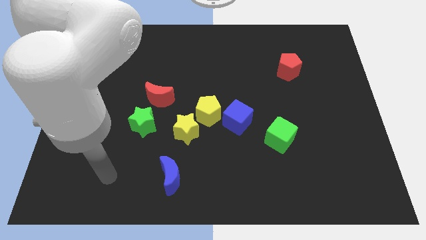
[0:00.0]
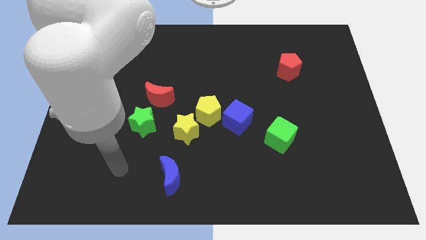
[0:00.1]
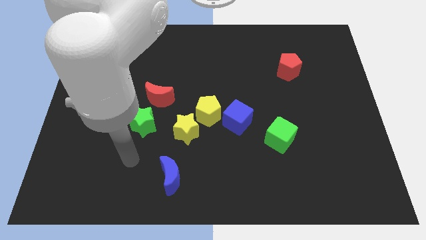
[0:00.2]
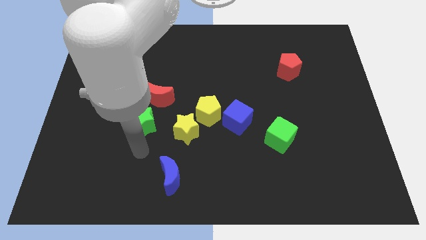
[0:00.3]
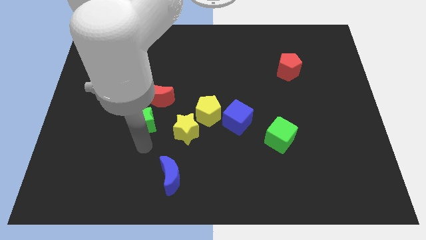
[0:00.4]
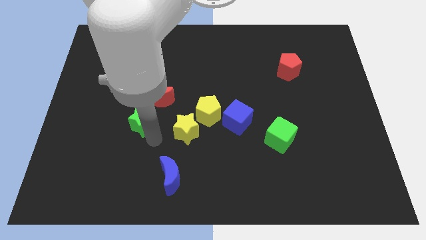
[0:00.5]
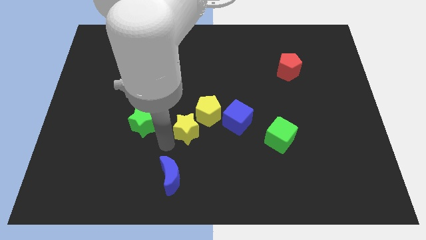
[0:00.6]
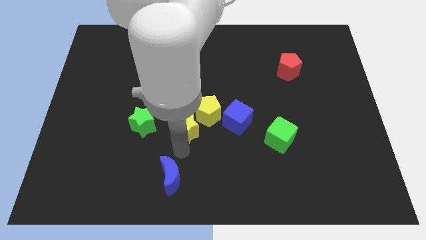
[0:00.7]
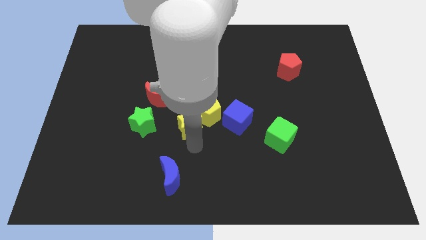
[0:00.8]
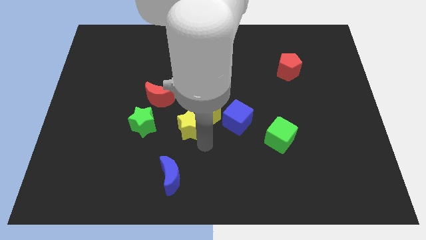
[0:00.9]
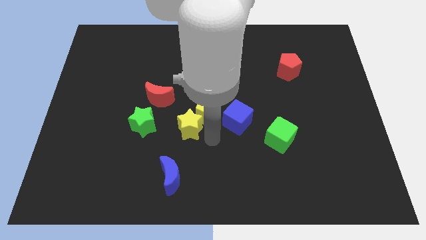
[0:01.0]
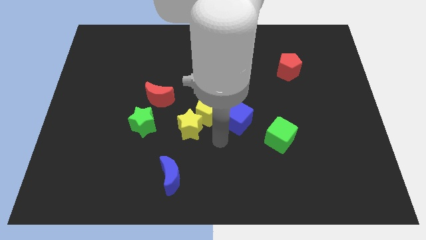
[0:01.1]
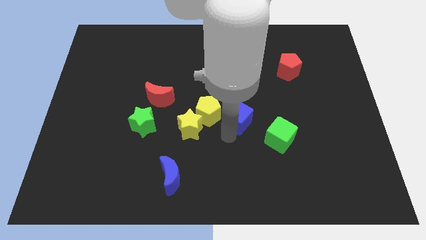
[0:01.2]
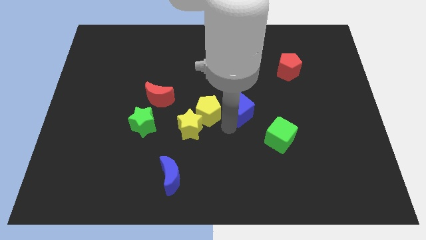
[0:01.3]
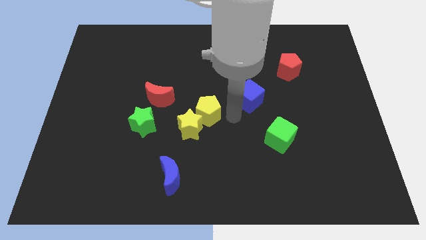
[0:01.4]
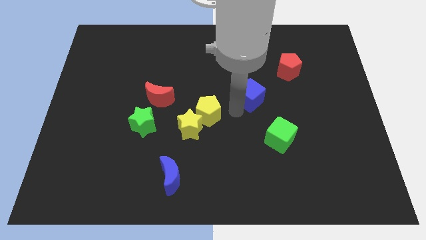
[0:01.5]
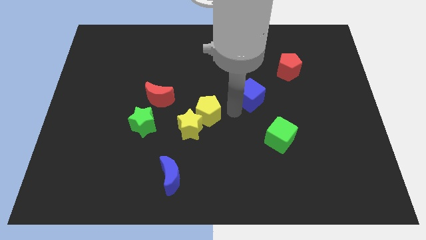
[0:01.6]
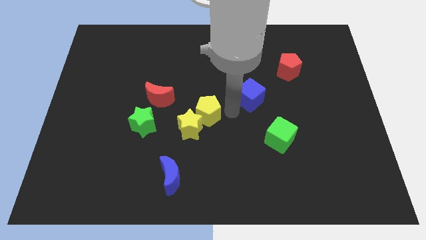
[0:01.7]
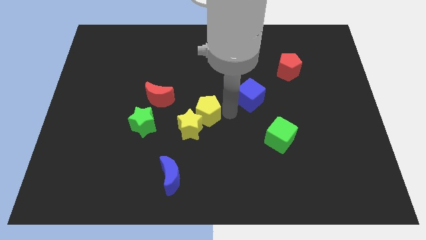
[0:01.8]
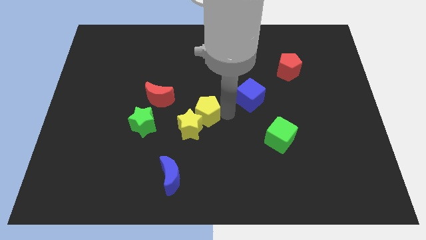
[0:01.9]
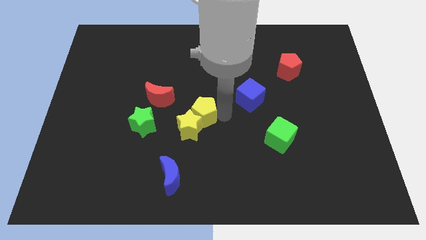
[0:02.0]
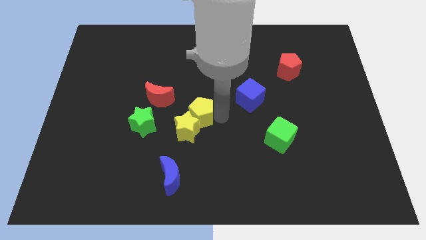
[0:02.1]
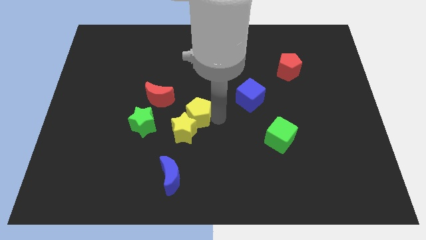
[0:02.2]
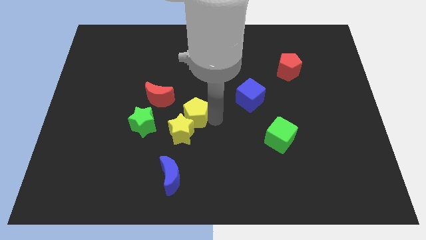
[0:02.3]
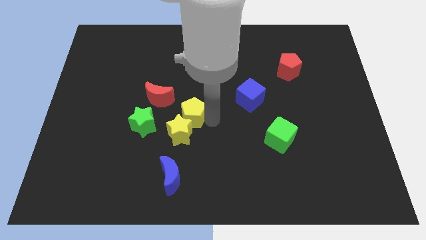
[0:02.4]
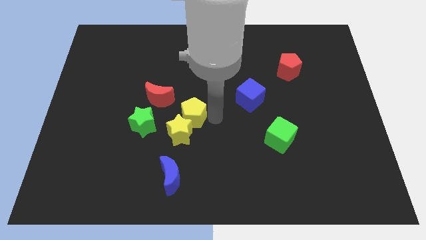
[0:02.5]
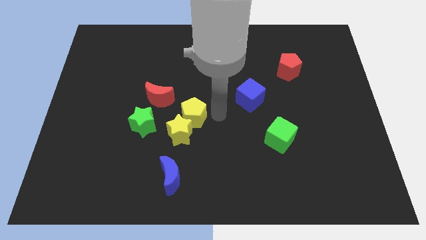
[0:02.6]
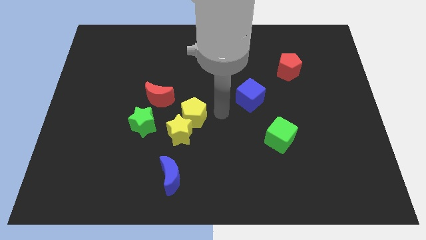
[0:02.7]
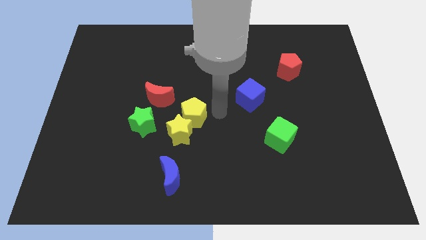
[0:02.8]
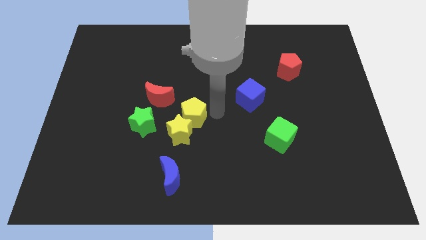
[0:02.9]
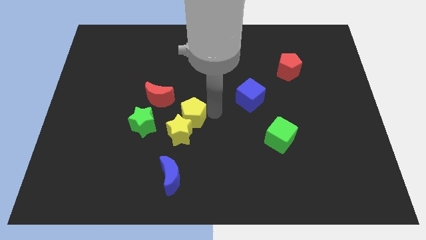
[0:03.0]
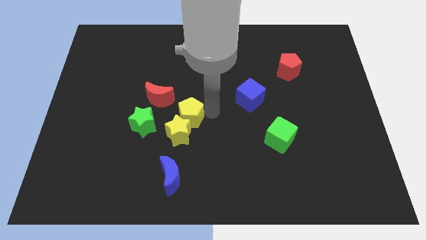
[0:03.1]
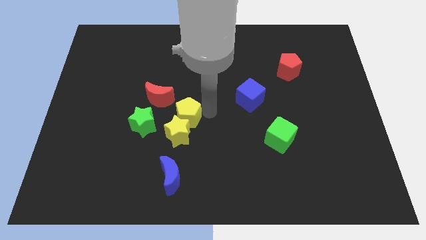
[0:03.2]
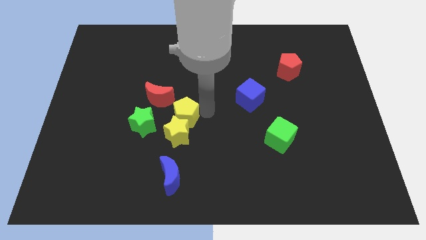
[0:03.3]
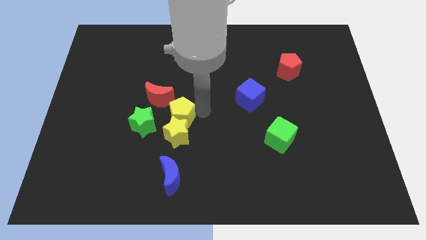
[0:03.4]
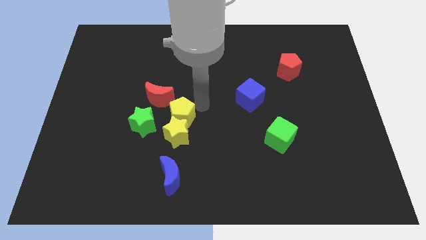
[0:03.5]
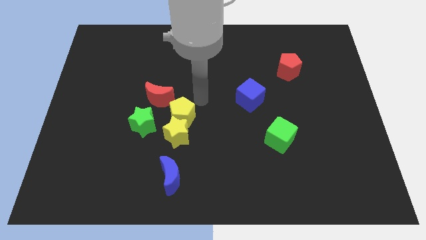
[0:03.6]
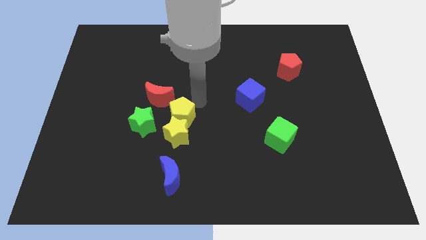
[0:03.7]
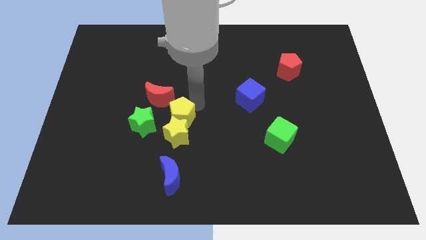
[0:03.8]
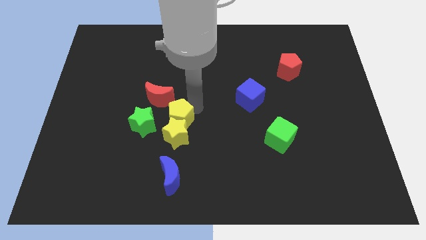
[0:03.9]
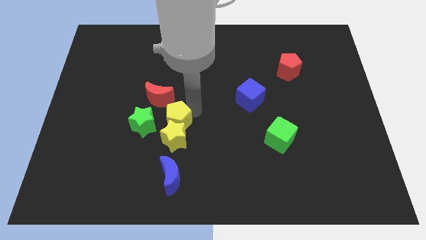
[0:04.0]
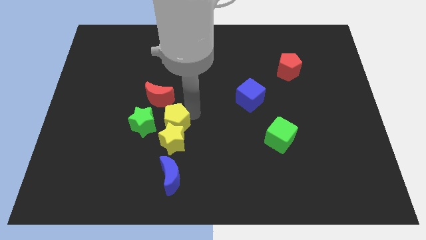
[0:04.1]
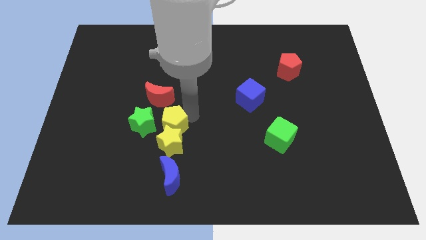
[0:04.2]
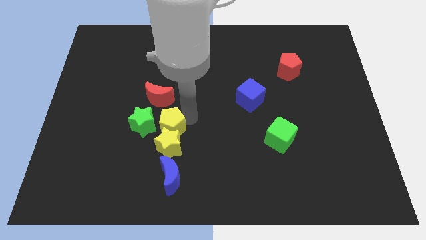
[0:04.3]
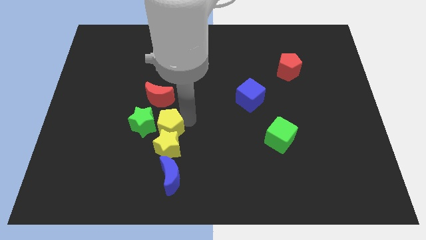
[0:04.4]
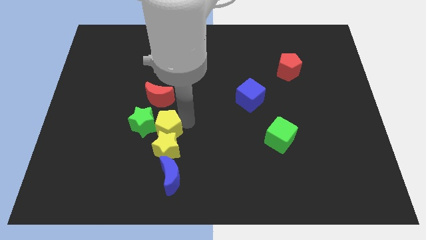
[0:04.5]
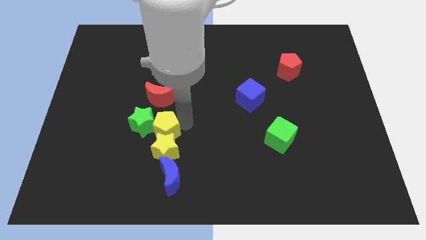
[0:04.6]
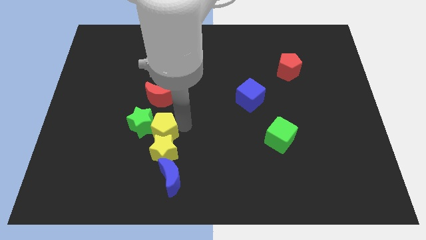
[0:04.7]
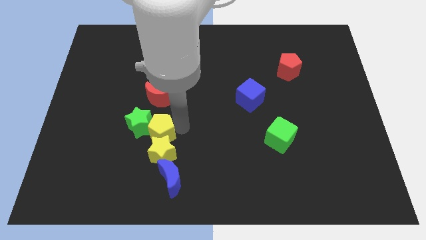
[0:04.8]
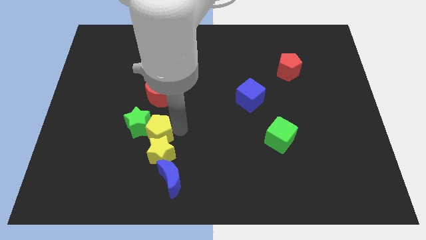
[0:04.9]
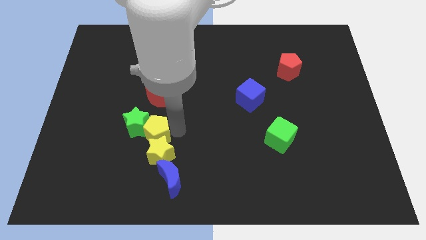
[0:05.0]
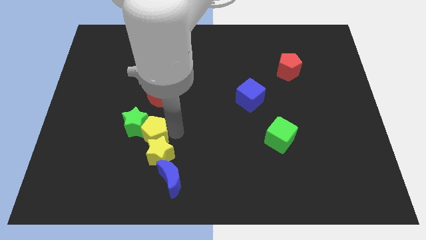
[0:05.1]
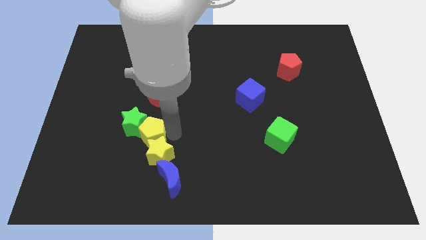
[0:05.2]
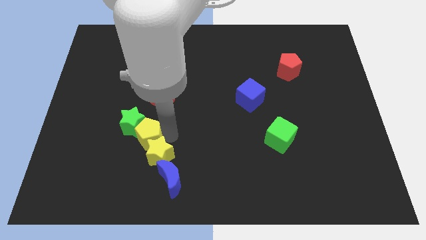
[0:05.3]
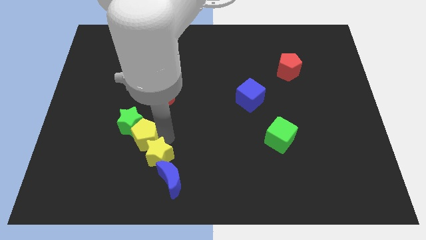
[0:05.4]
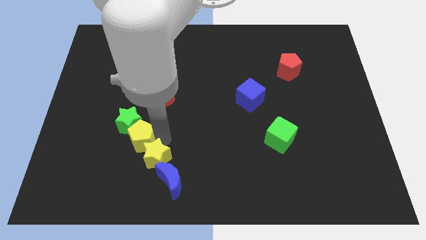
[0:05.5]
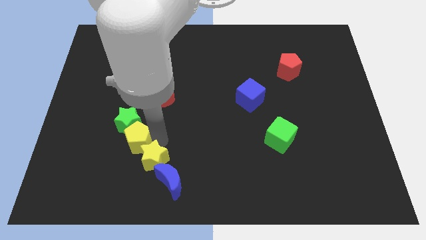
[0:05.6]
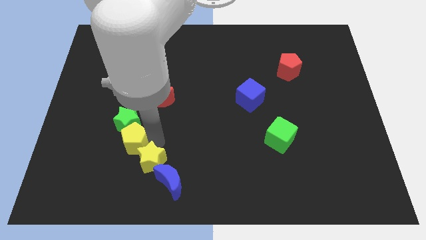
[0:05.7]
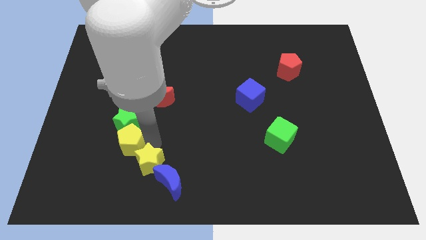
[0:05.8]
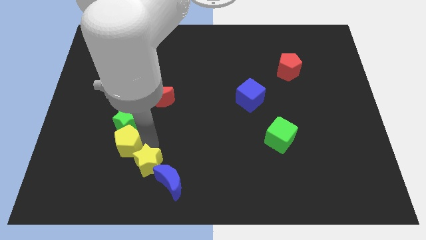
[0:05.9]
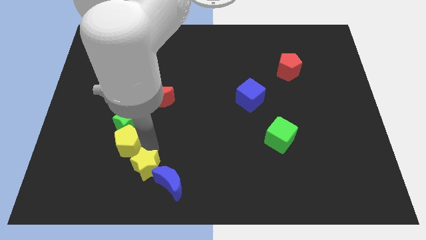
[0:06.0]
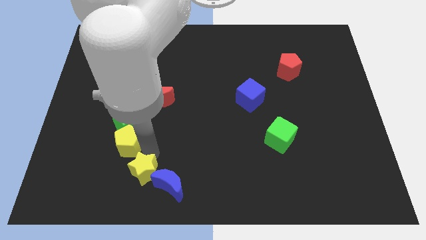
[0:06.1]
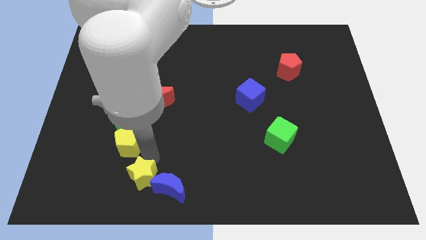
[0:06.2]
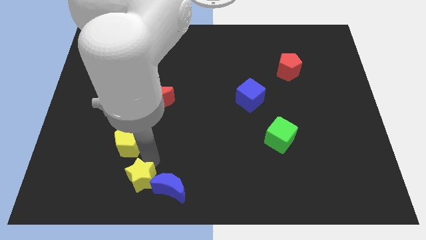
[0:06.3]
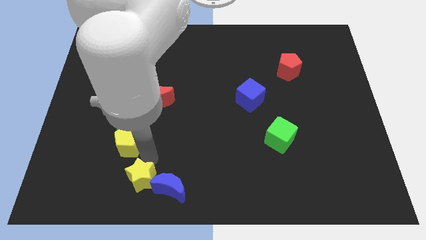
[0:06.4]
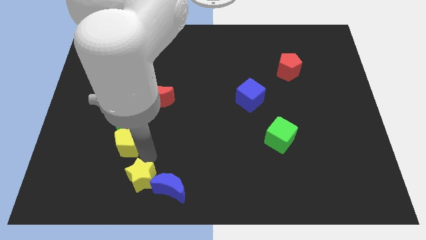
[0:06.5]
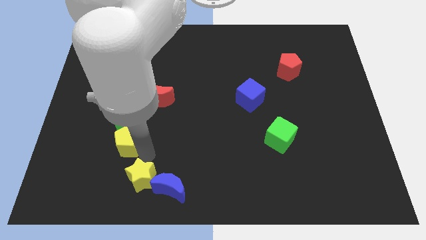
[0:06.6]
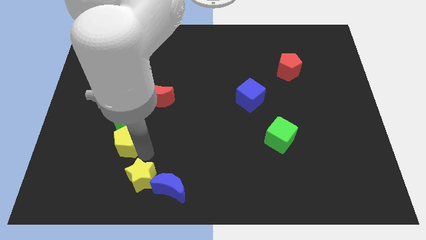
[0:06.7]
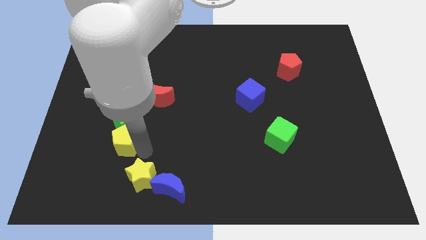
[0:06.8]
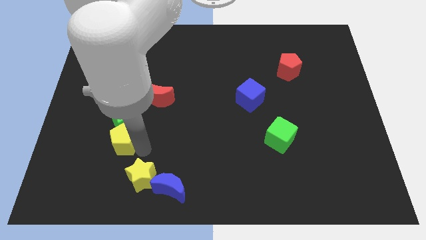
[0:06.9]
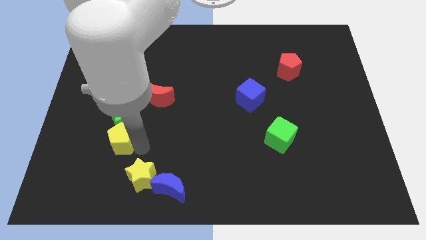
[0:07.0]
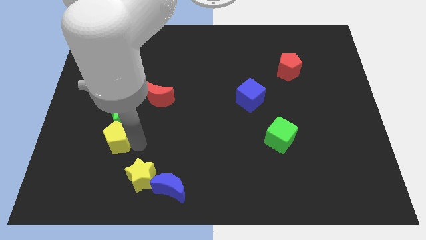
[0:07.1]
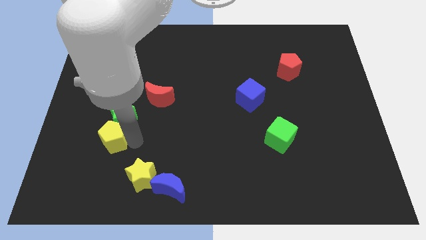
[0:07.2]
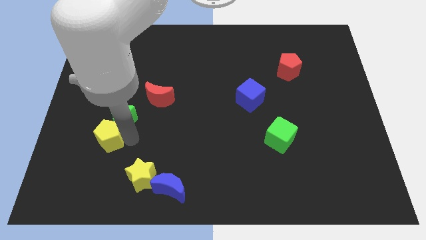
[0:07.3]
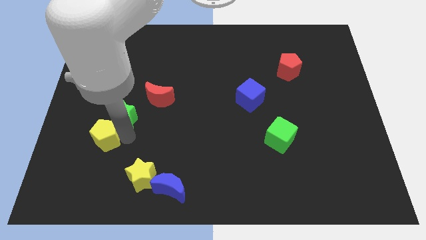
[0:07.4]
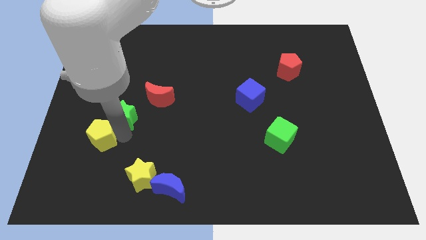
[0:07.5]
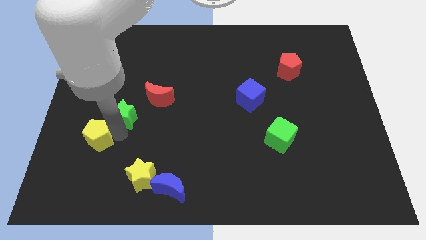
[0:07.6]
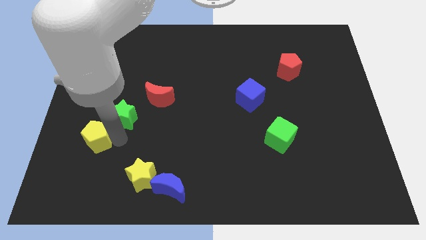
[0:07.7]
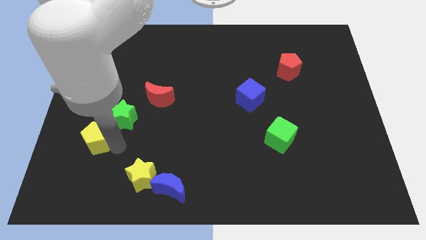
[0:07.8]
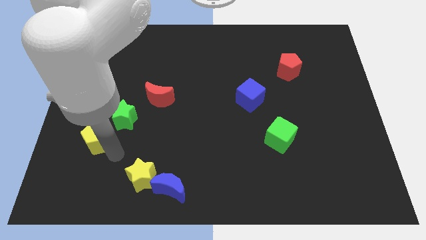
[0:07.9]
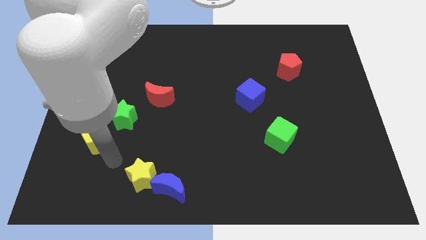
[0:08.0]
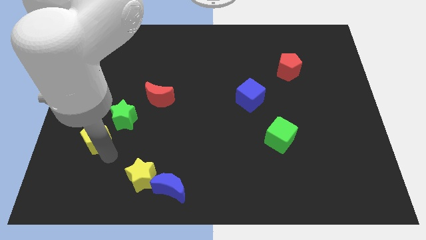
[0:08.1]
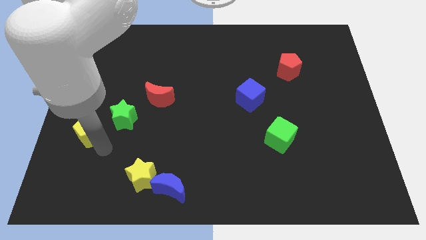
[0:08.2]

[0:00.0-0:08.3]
push the yellow pentagon just left of the green star
